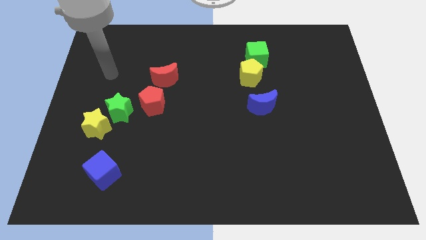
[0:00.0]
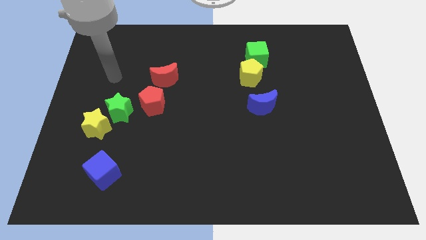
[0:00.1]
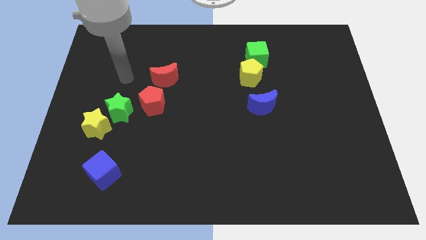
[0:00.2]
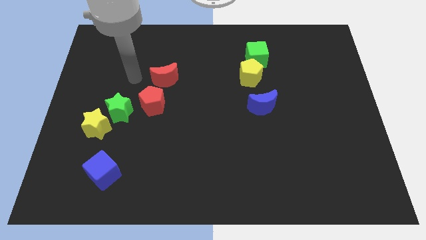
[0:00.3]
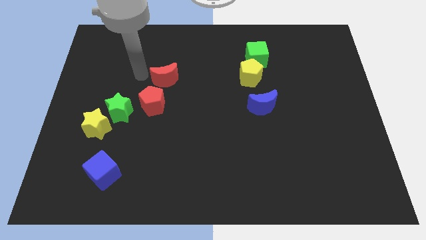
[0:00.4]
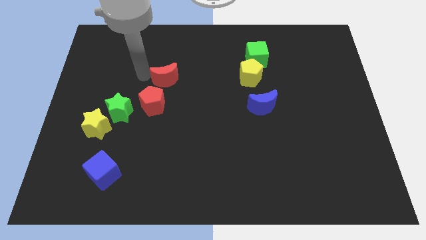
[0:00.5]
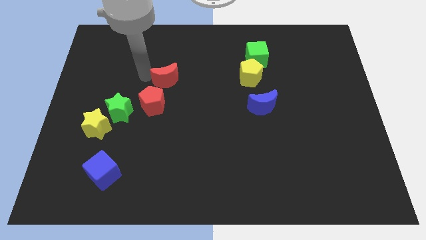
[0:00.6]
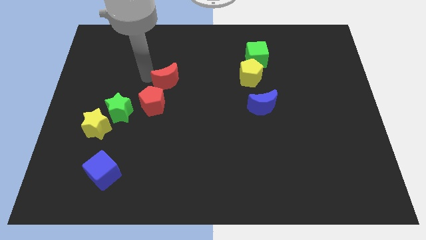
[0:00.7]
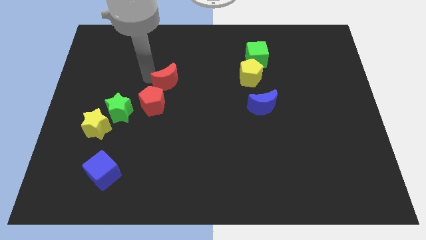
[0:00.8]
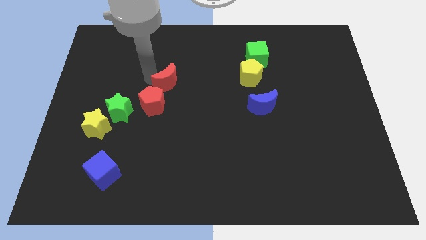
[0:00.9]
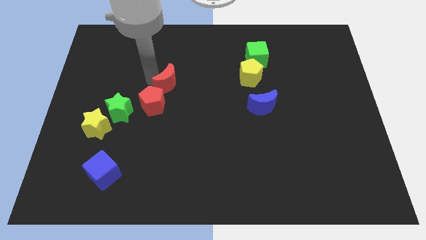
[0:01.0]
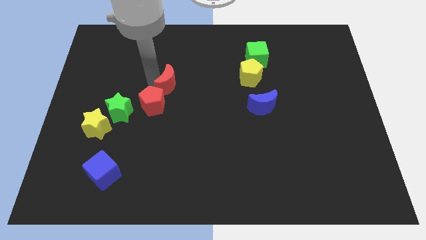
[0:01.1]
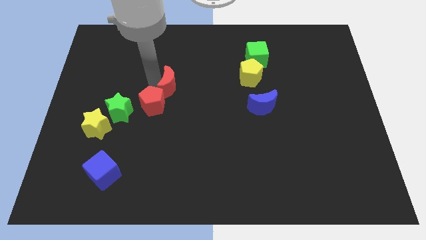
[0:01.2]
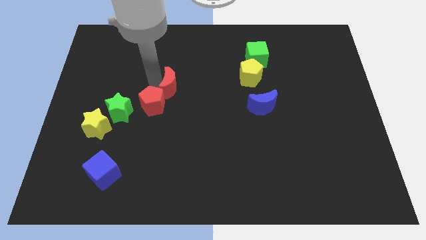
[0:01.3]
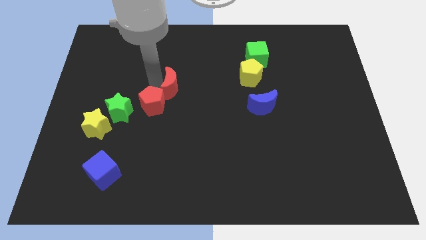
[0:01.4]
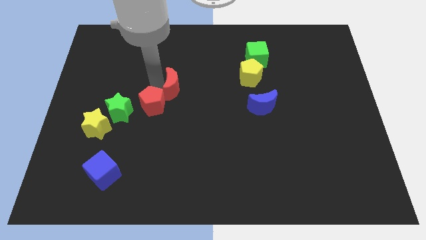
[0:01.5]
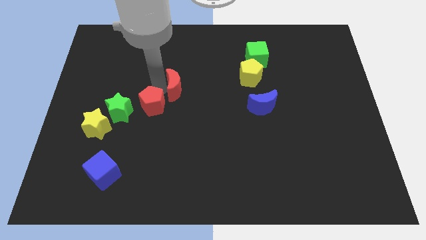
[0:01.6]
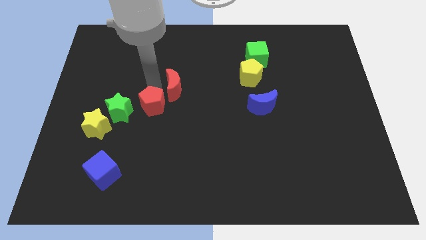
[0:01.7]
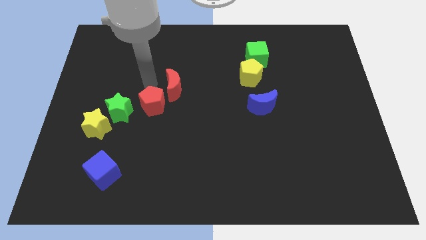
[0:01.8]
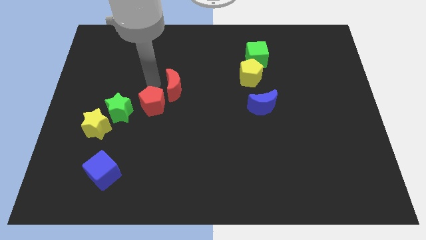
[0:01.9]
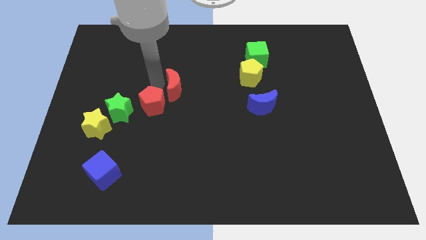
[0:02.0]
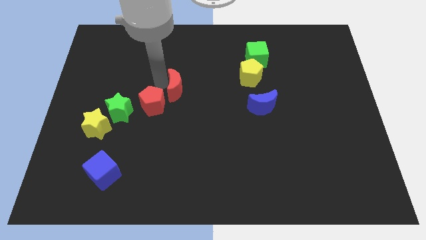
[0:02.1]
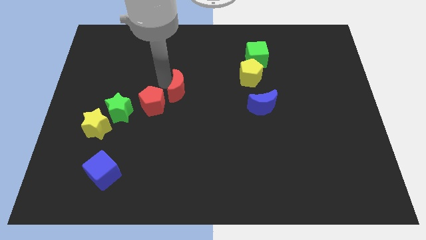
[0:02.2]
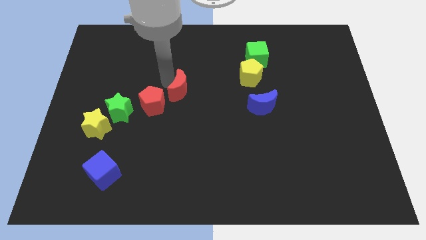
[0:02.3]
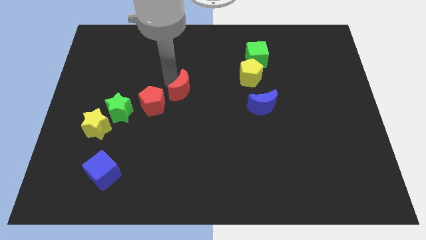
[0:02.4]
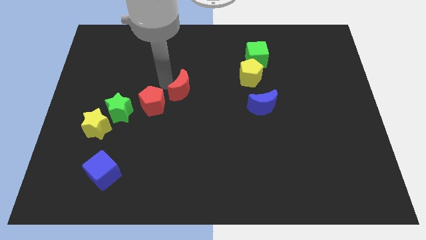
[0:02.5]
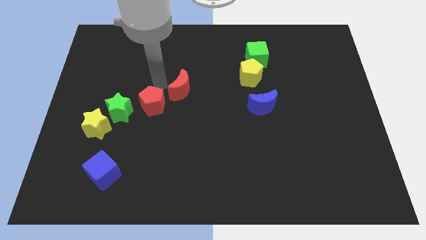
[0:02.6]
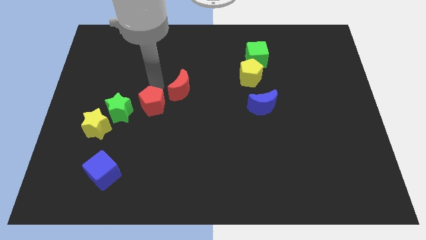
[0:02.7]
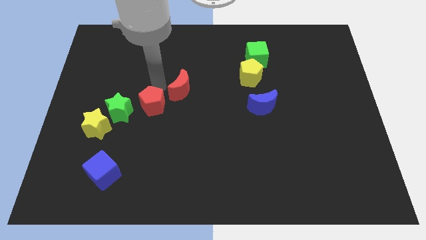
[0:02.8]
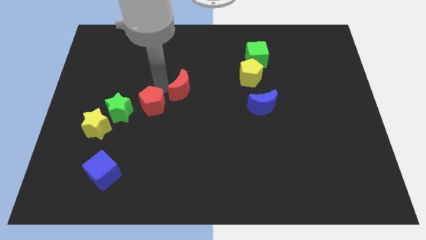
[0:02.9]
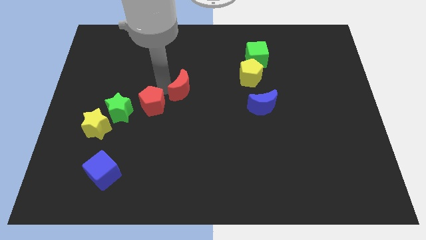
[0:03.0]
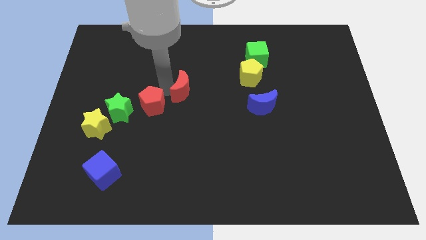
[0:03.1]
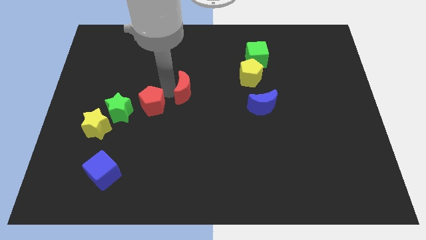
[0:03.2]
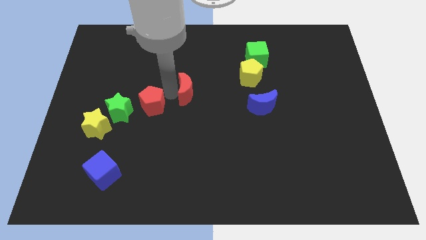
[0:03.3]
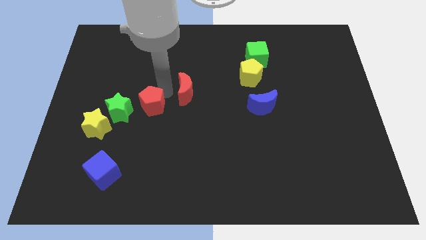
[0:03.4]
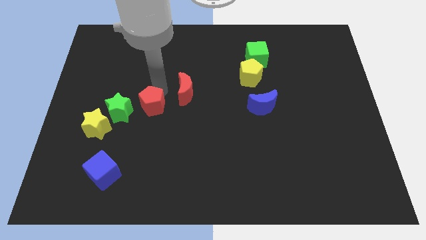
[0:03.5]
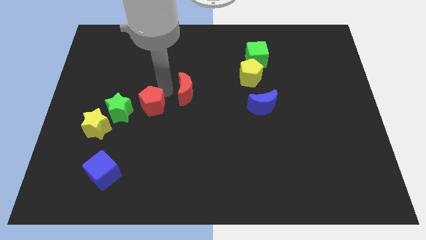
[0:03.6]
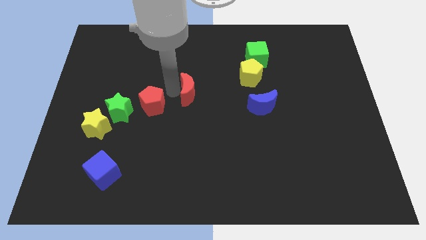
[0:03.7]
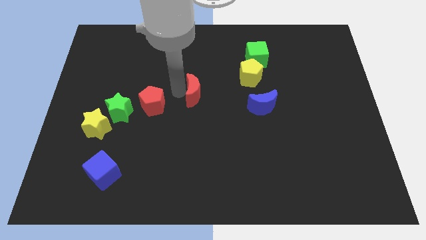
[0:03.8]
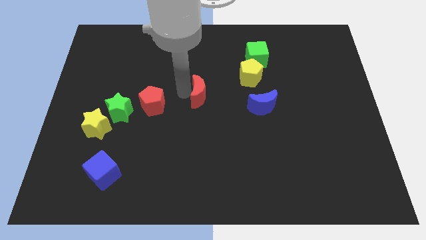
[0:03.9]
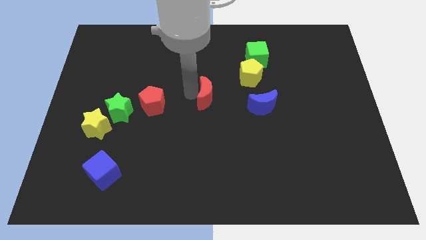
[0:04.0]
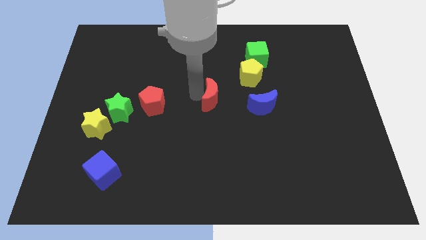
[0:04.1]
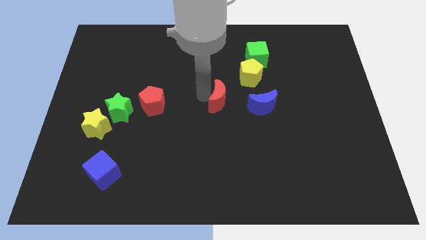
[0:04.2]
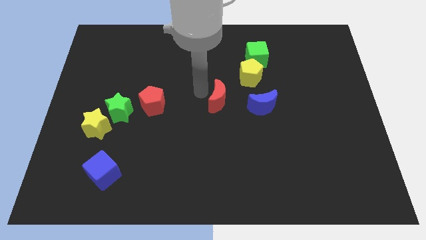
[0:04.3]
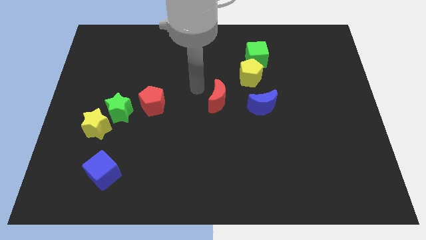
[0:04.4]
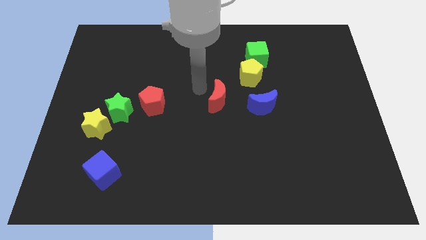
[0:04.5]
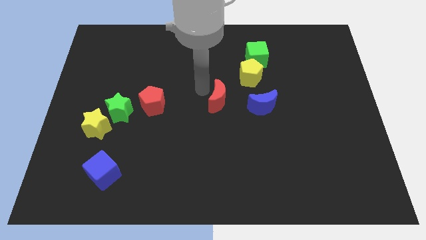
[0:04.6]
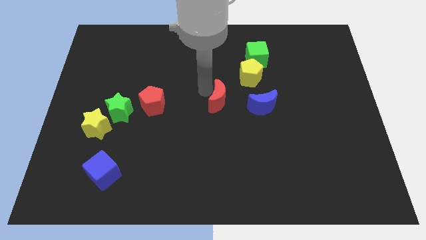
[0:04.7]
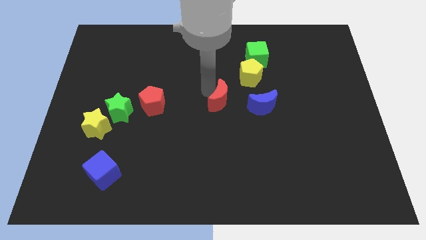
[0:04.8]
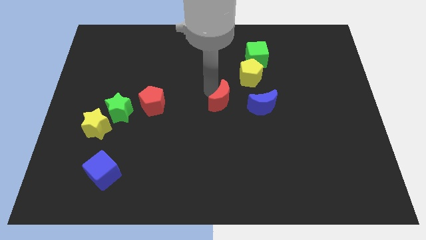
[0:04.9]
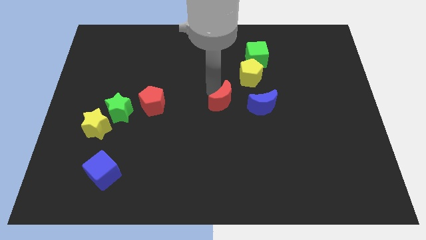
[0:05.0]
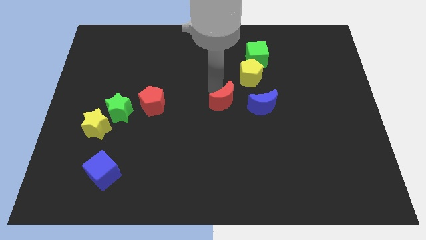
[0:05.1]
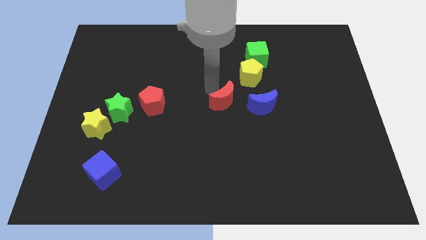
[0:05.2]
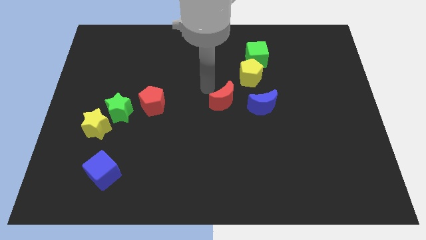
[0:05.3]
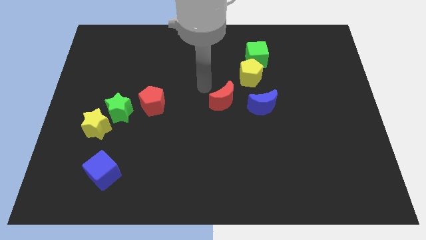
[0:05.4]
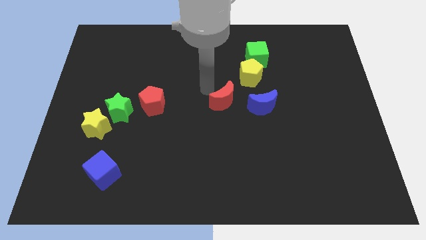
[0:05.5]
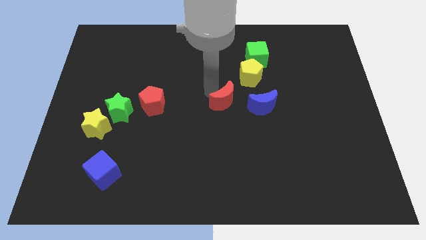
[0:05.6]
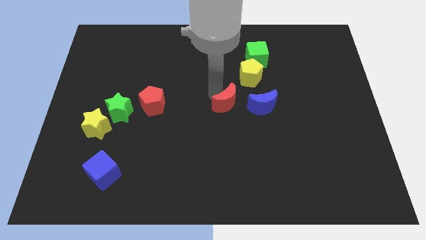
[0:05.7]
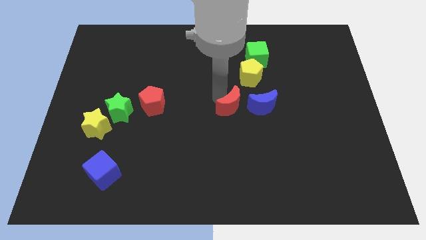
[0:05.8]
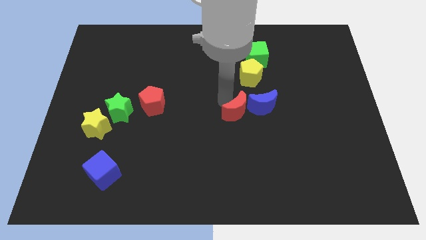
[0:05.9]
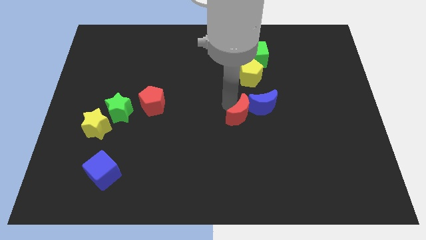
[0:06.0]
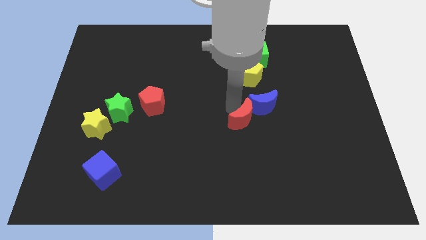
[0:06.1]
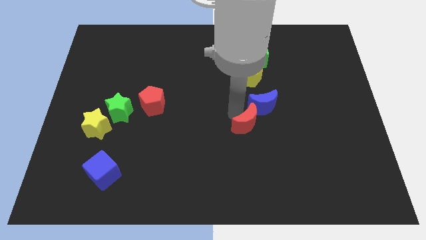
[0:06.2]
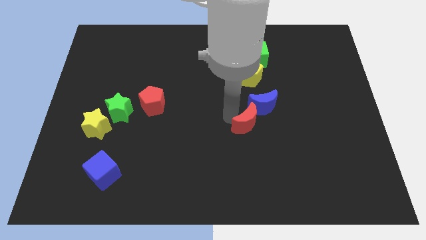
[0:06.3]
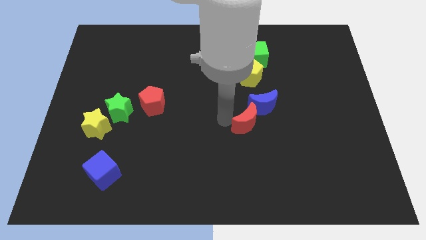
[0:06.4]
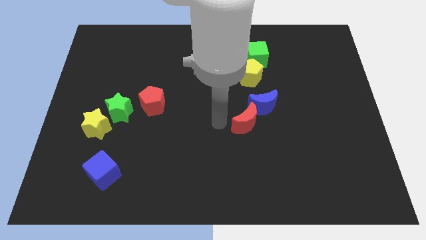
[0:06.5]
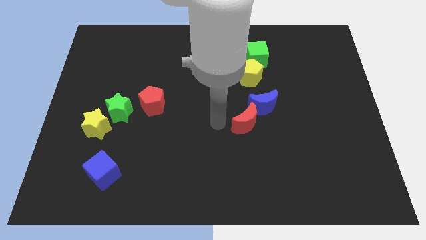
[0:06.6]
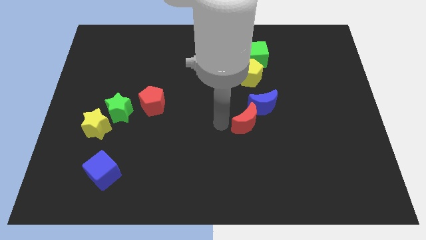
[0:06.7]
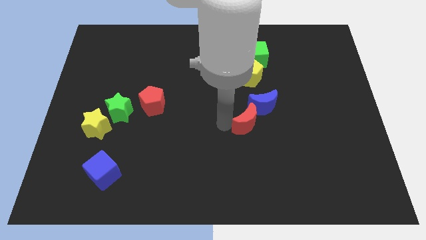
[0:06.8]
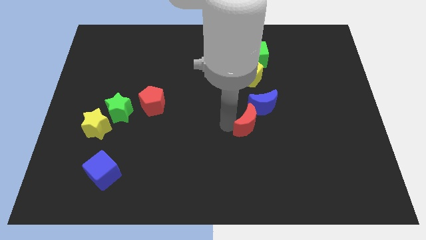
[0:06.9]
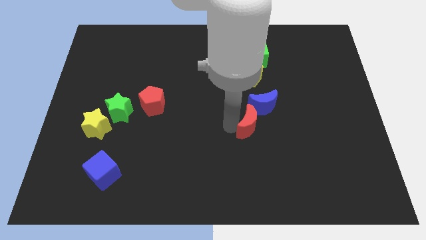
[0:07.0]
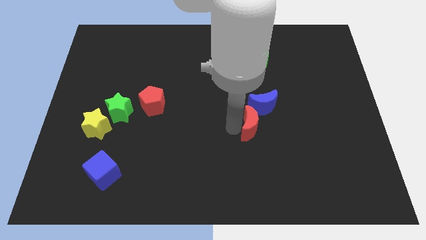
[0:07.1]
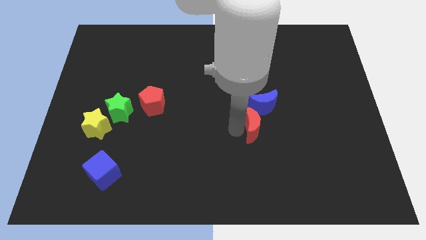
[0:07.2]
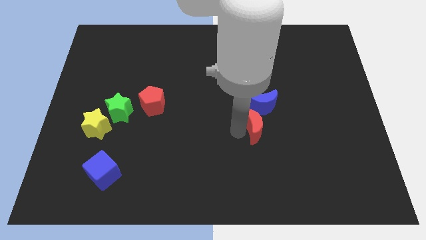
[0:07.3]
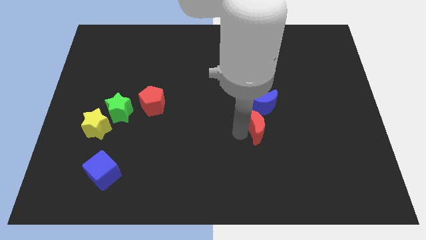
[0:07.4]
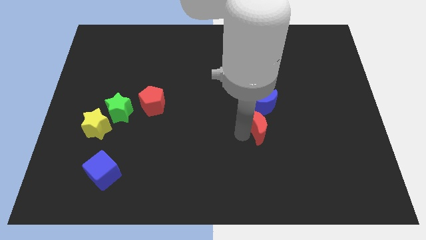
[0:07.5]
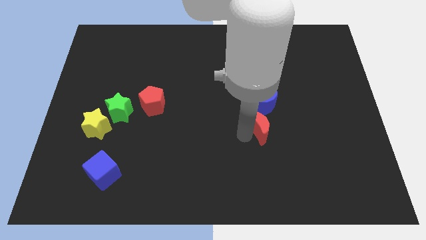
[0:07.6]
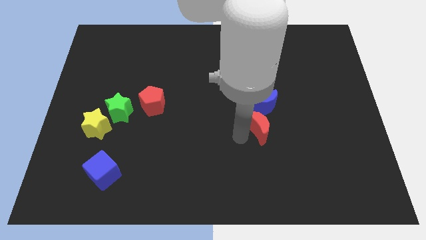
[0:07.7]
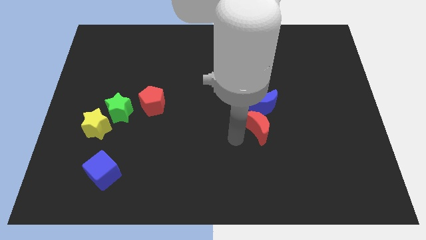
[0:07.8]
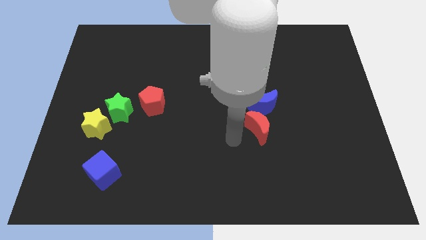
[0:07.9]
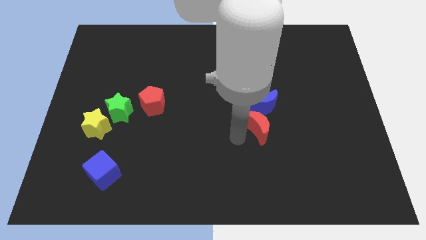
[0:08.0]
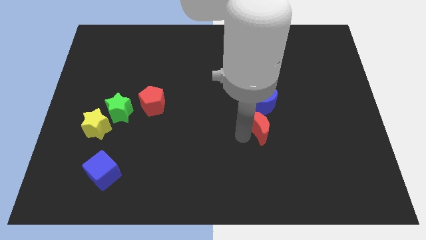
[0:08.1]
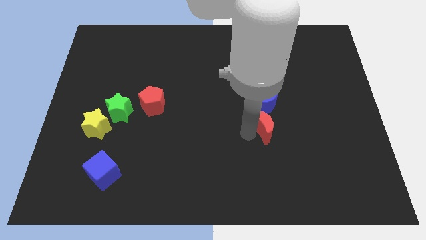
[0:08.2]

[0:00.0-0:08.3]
move the red moon diagonally down and to the right of the blue moon
